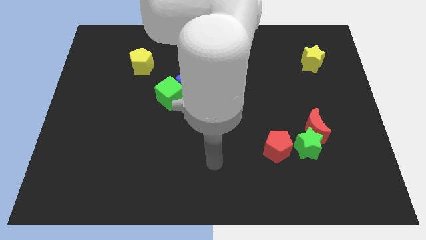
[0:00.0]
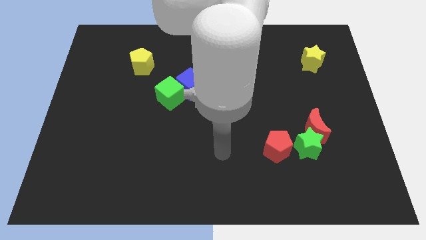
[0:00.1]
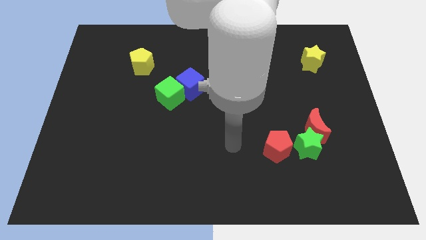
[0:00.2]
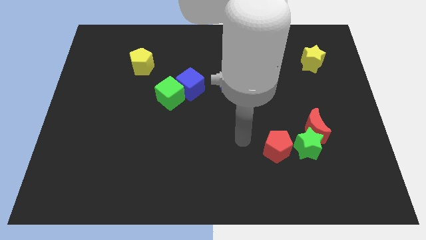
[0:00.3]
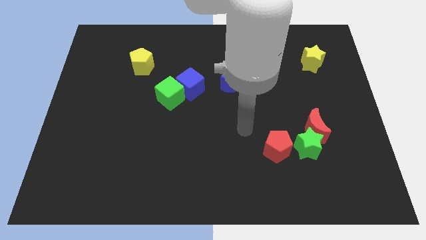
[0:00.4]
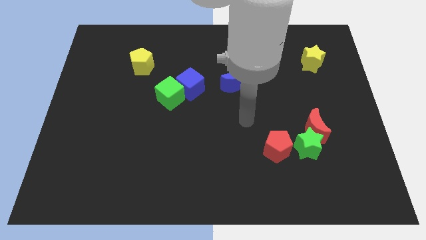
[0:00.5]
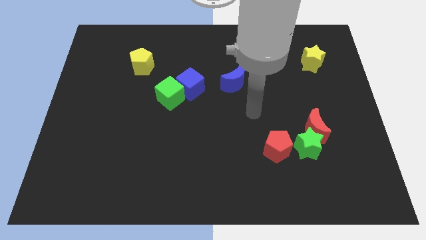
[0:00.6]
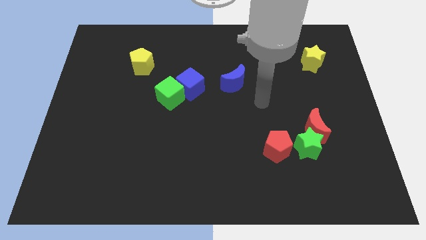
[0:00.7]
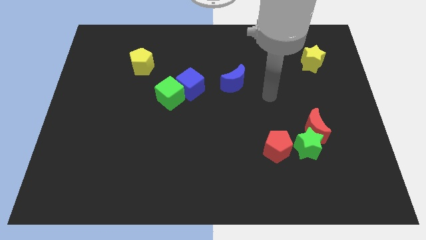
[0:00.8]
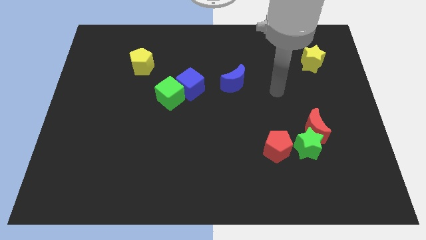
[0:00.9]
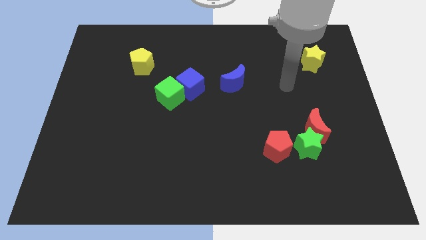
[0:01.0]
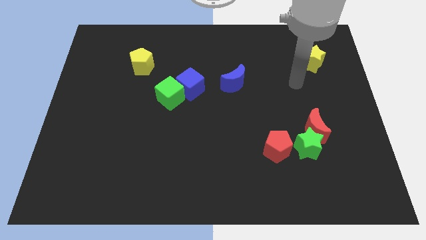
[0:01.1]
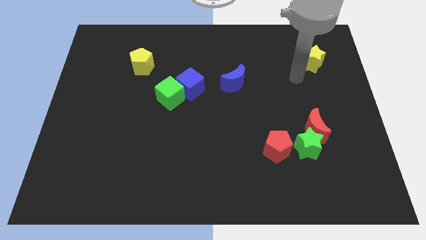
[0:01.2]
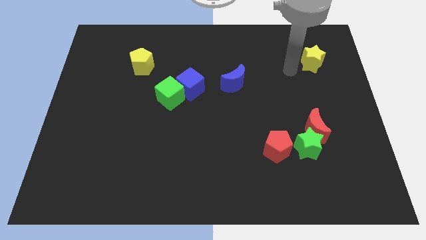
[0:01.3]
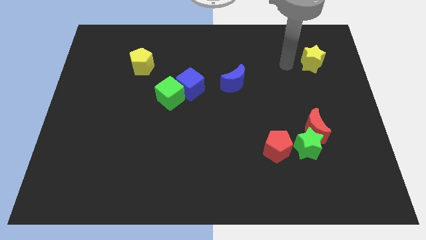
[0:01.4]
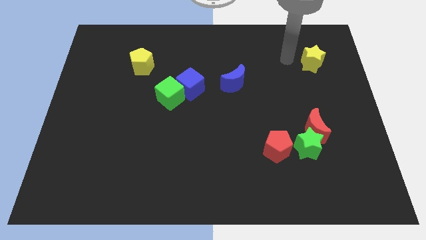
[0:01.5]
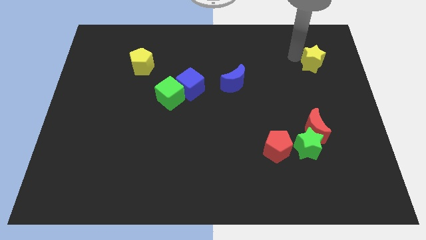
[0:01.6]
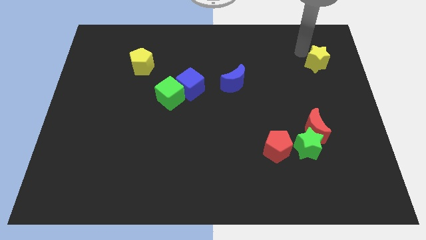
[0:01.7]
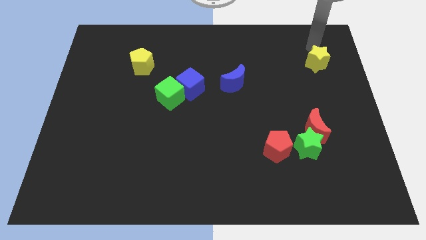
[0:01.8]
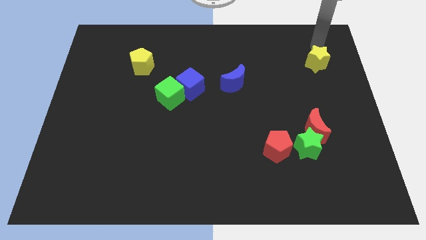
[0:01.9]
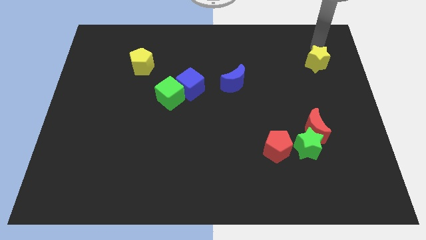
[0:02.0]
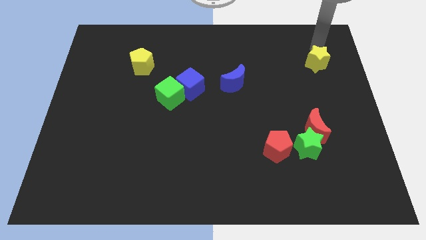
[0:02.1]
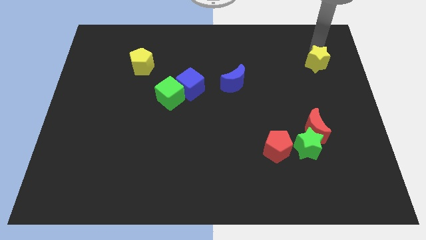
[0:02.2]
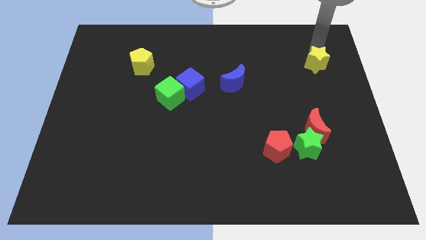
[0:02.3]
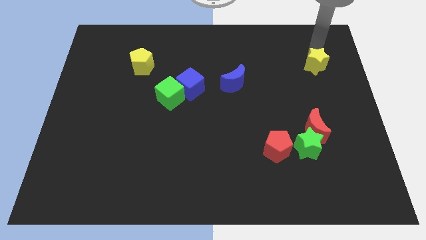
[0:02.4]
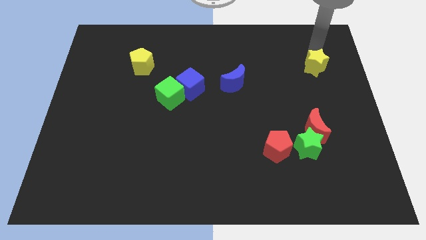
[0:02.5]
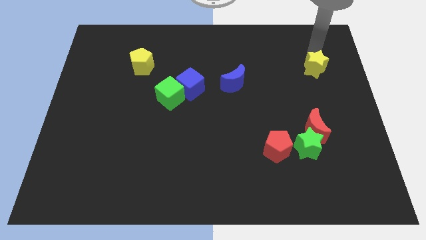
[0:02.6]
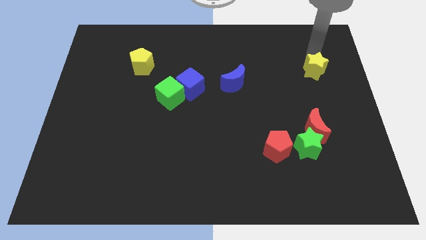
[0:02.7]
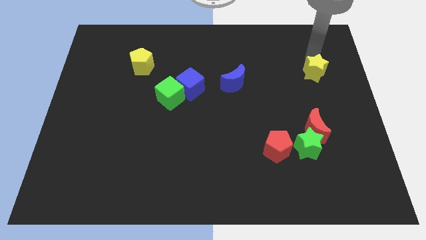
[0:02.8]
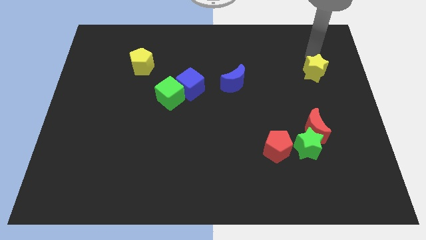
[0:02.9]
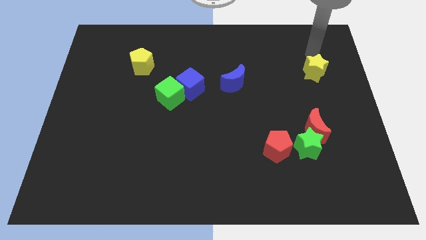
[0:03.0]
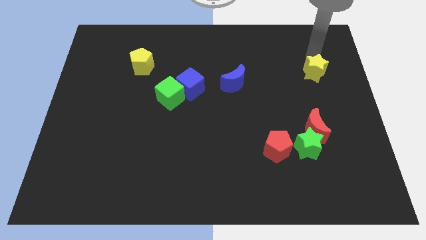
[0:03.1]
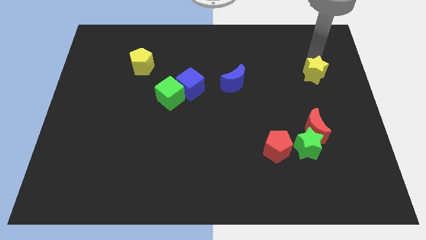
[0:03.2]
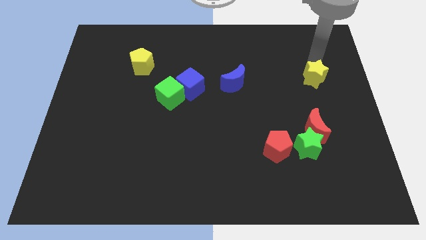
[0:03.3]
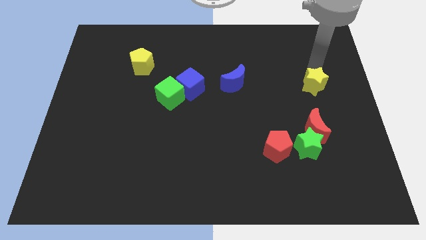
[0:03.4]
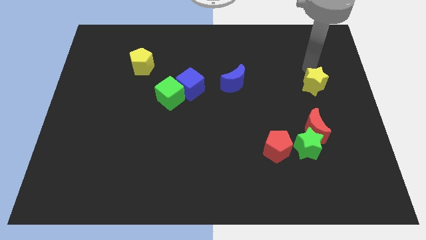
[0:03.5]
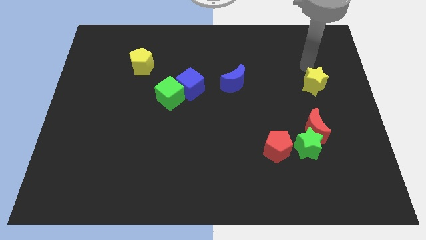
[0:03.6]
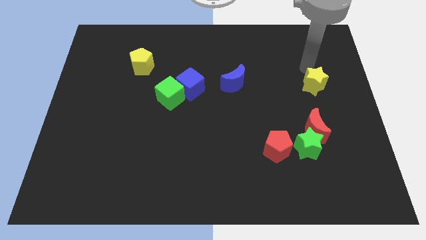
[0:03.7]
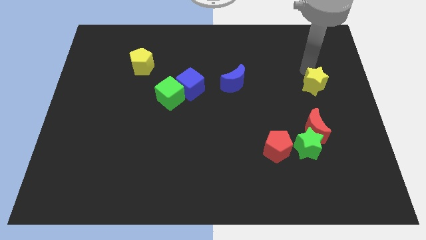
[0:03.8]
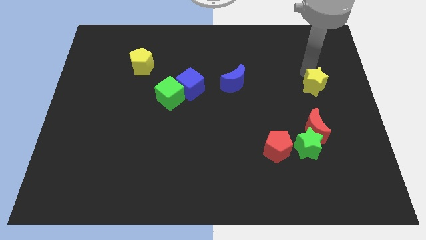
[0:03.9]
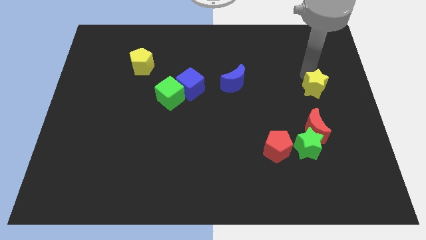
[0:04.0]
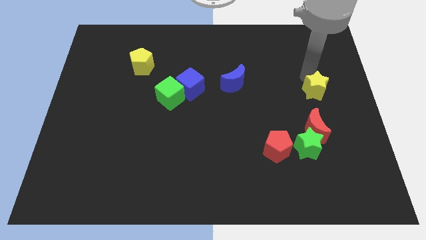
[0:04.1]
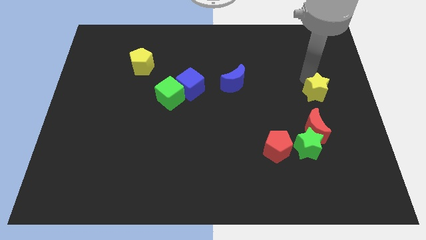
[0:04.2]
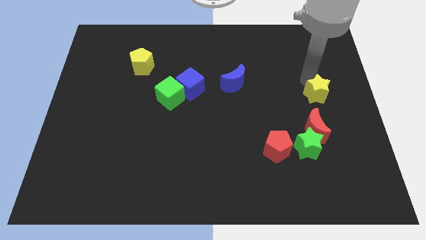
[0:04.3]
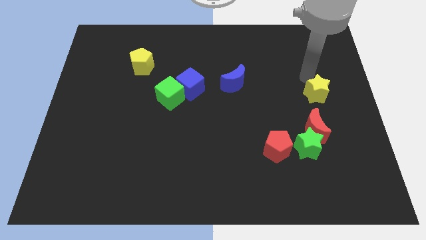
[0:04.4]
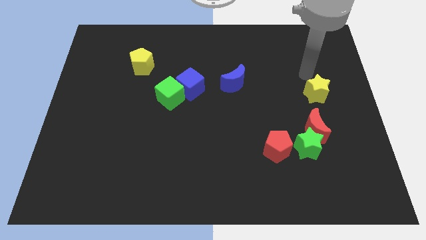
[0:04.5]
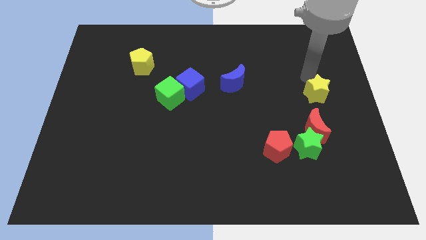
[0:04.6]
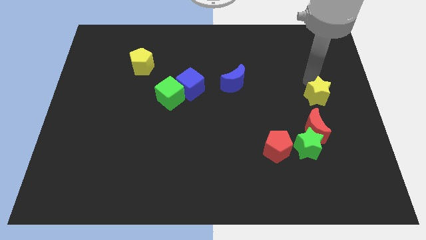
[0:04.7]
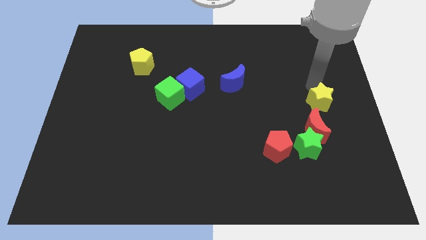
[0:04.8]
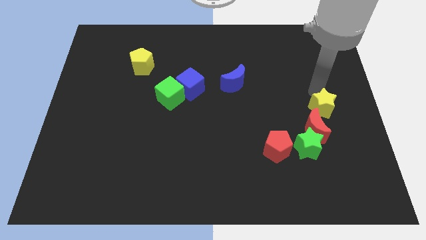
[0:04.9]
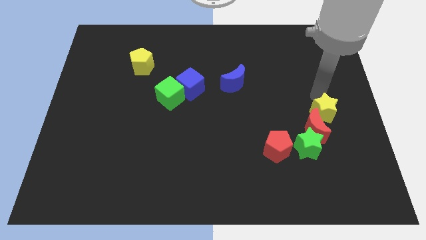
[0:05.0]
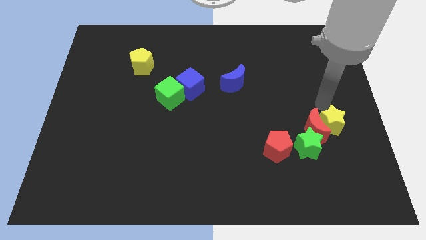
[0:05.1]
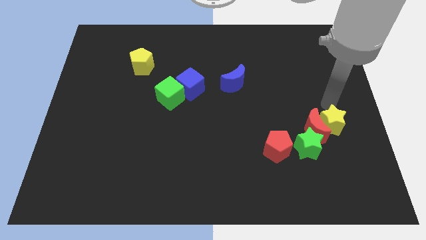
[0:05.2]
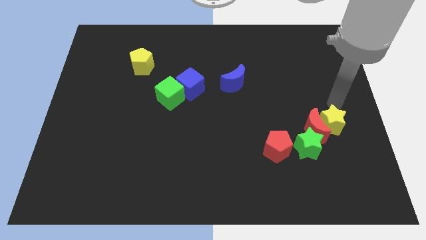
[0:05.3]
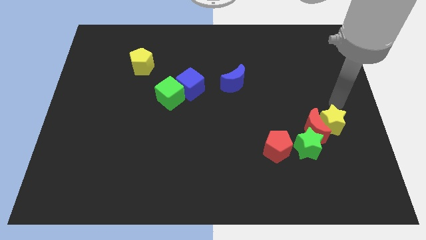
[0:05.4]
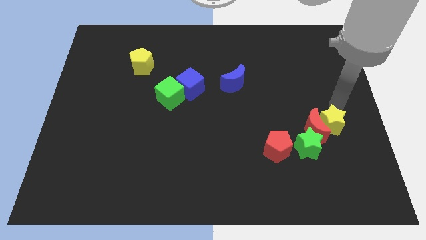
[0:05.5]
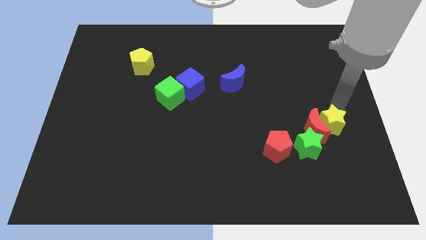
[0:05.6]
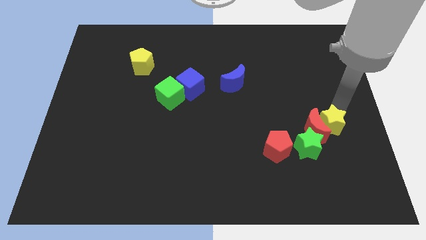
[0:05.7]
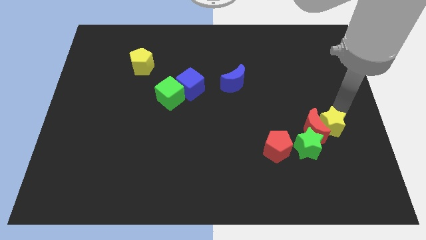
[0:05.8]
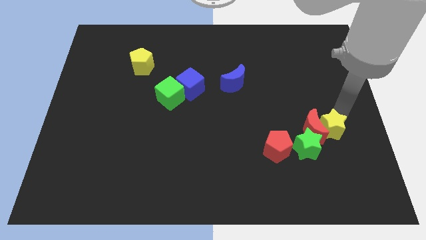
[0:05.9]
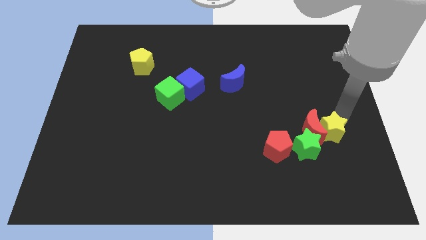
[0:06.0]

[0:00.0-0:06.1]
put the yellow star to the right of the red pentagon
